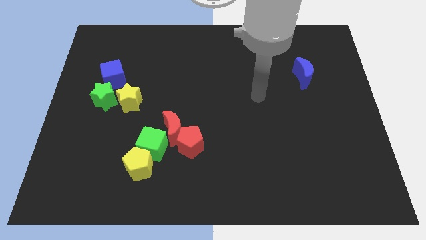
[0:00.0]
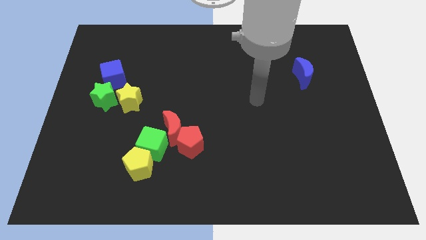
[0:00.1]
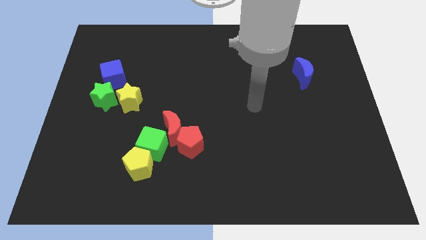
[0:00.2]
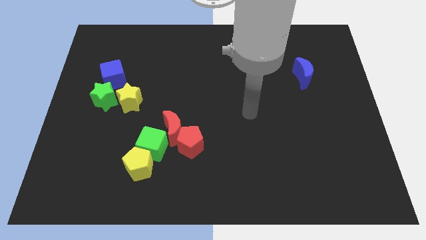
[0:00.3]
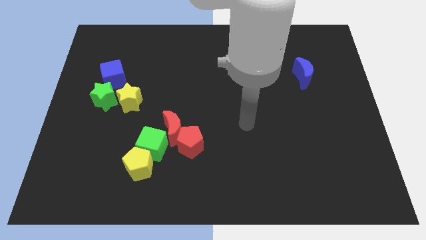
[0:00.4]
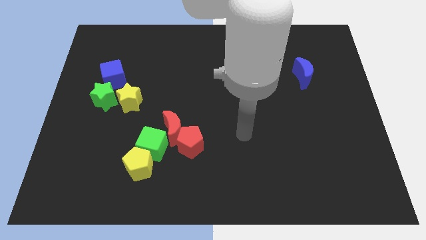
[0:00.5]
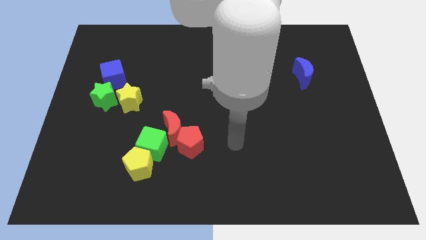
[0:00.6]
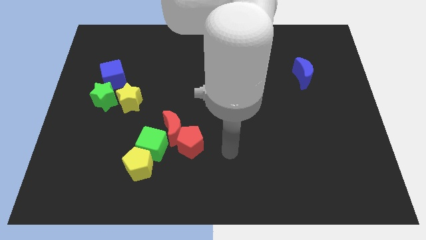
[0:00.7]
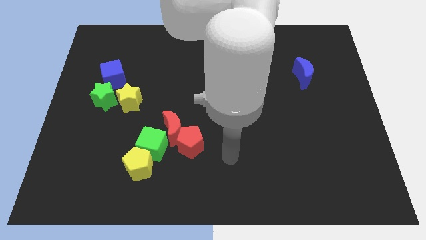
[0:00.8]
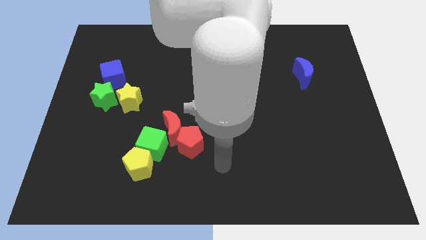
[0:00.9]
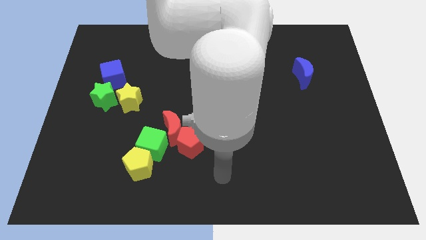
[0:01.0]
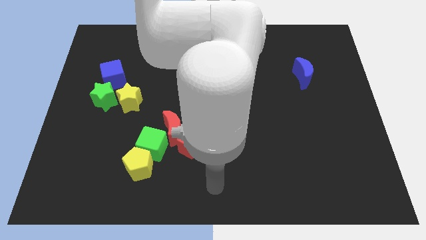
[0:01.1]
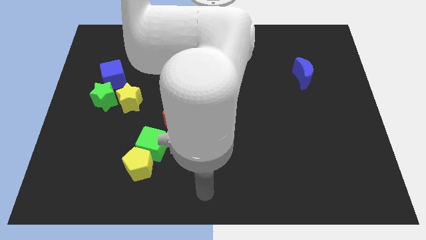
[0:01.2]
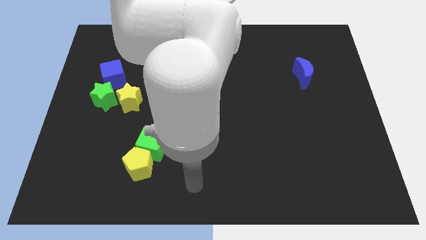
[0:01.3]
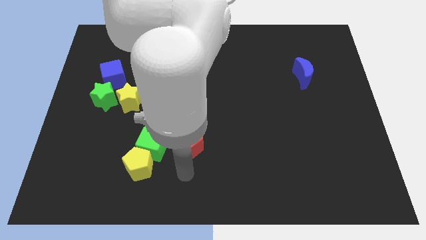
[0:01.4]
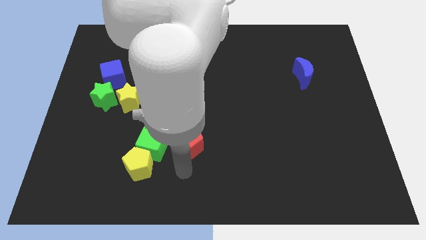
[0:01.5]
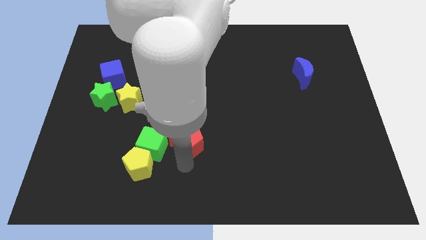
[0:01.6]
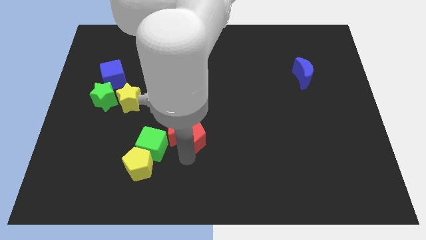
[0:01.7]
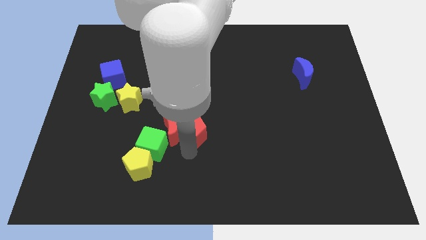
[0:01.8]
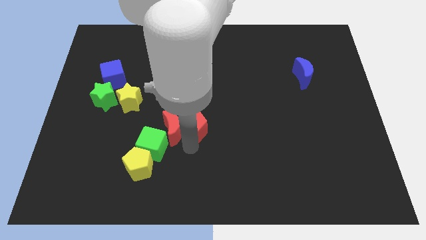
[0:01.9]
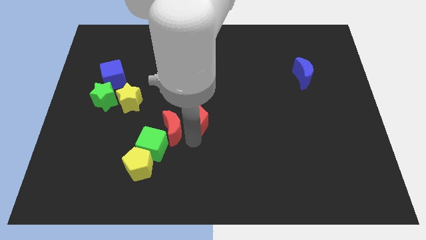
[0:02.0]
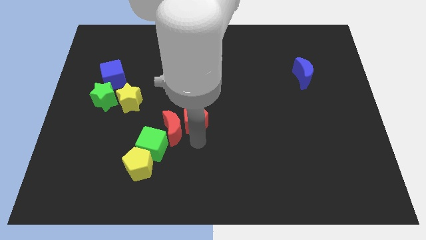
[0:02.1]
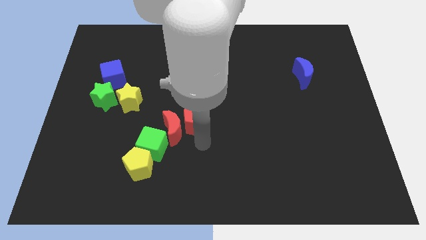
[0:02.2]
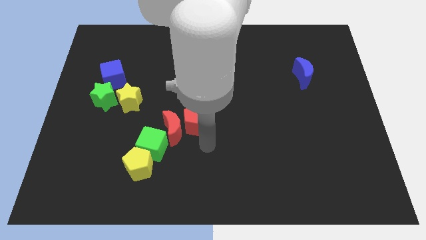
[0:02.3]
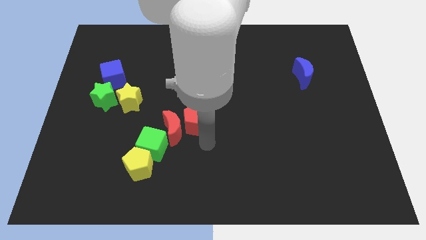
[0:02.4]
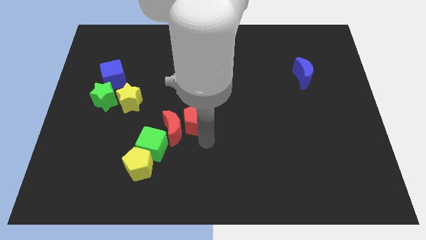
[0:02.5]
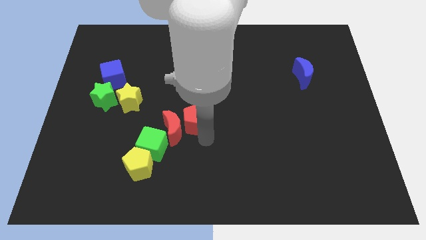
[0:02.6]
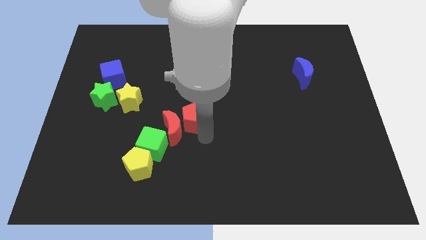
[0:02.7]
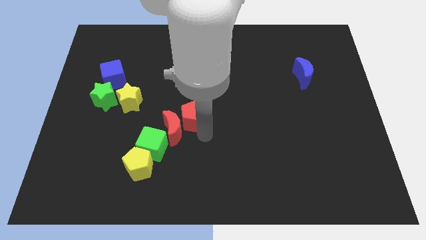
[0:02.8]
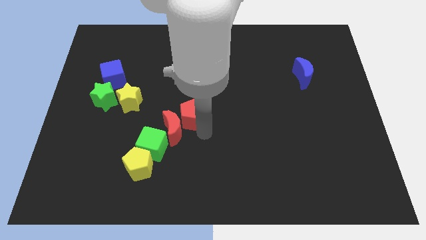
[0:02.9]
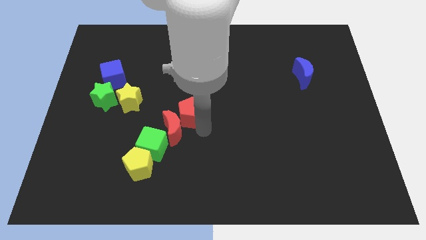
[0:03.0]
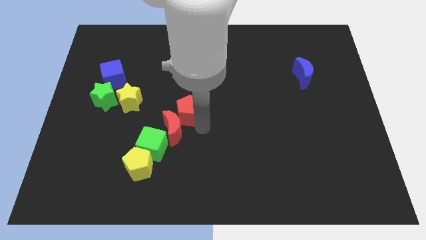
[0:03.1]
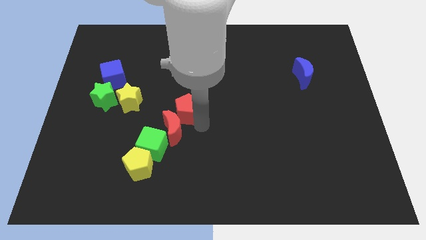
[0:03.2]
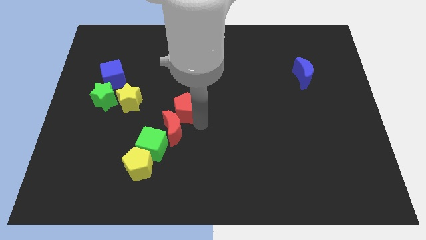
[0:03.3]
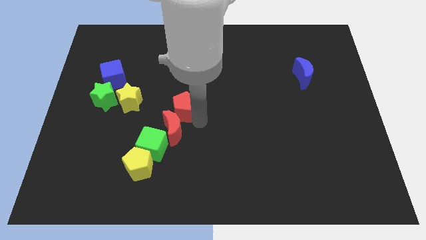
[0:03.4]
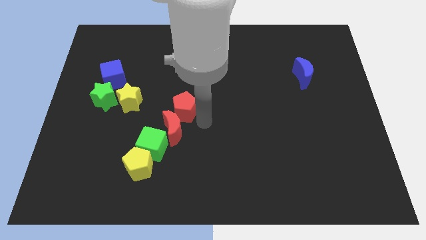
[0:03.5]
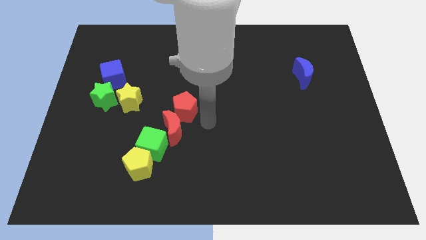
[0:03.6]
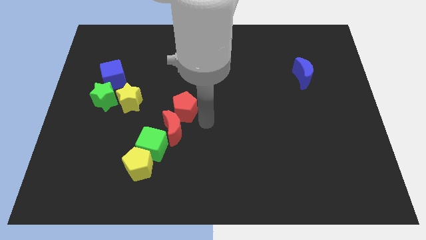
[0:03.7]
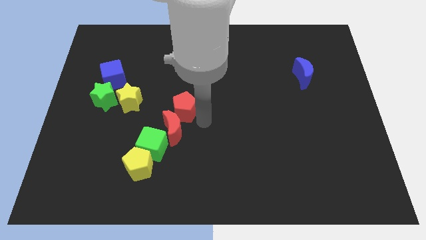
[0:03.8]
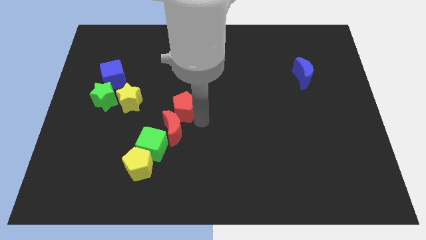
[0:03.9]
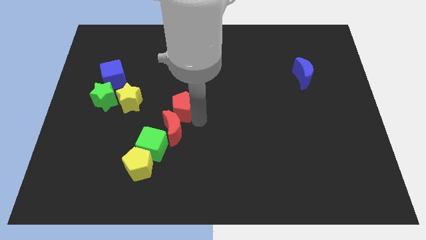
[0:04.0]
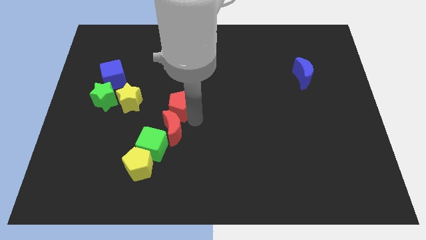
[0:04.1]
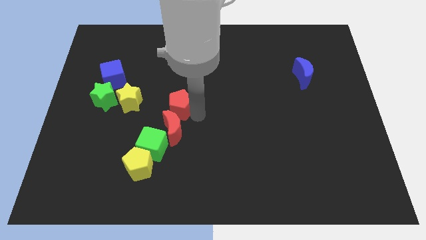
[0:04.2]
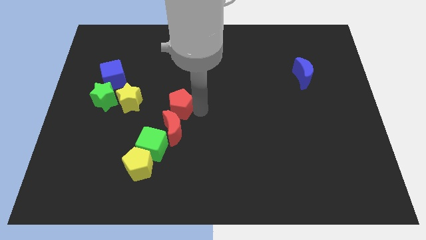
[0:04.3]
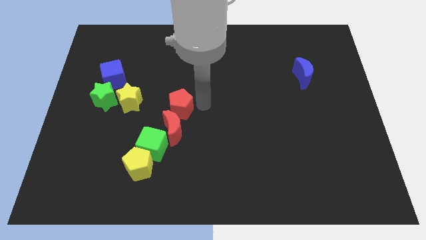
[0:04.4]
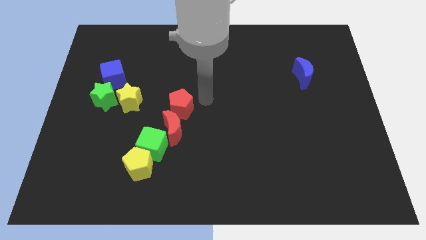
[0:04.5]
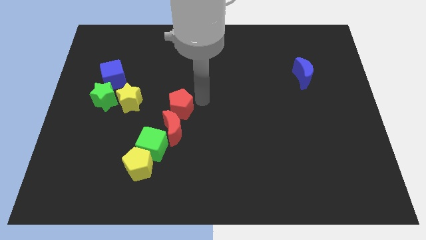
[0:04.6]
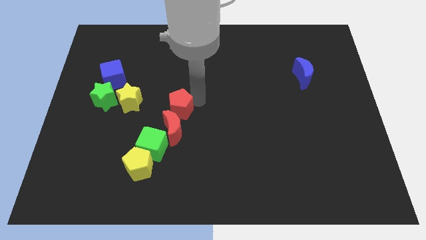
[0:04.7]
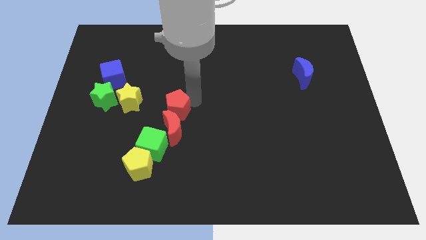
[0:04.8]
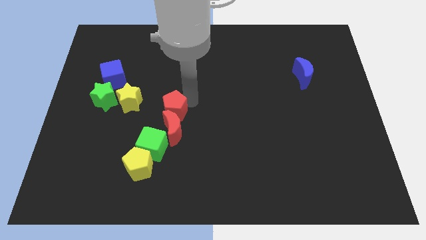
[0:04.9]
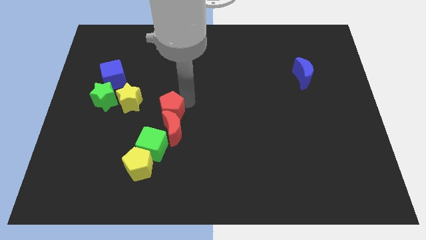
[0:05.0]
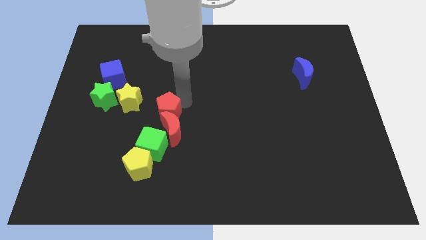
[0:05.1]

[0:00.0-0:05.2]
push the red pentagon to the bottom right side of the yellow star

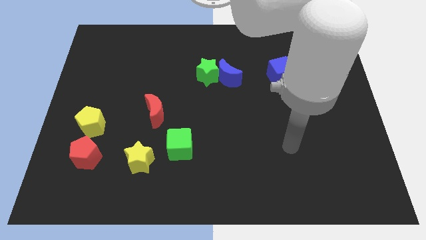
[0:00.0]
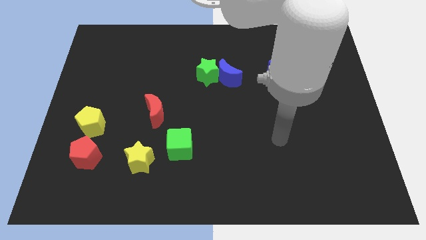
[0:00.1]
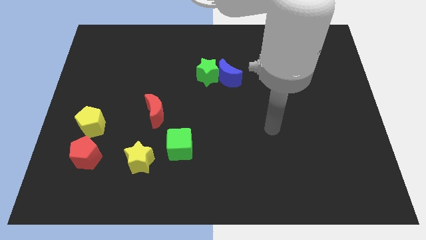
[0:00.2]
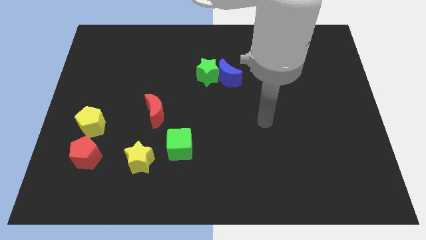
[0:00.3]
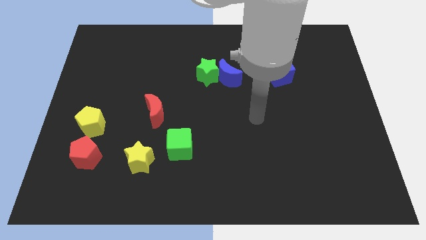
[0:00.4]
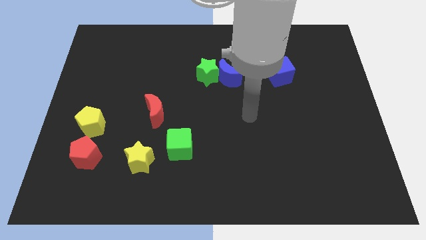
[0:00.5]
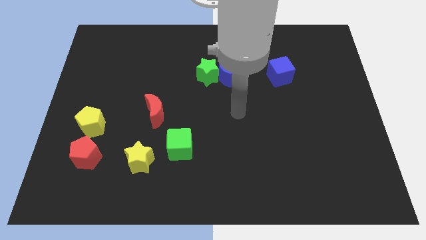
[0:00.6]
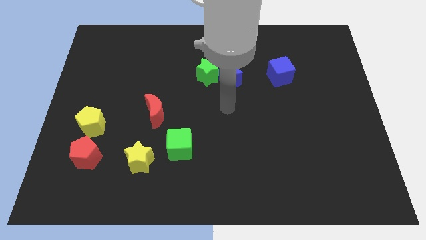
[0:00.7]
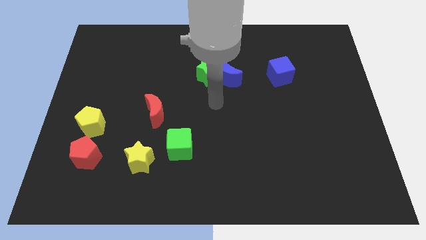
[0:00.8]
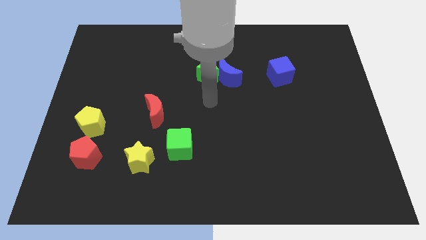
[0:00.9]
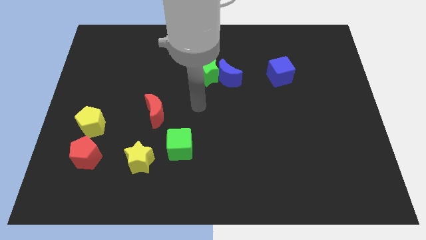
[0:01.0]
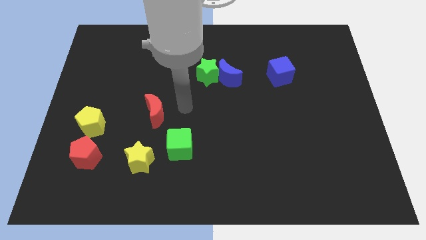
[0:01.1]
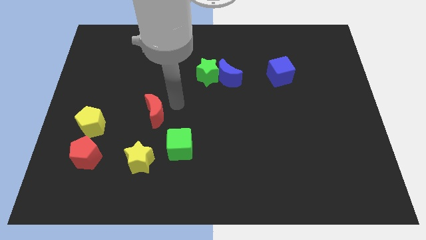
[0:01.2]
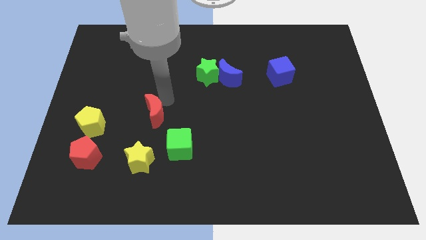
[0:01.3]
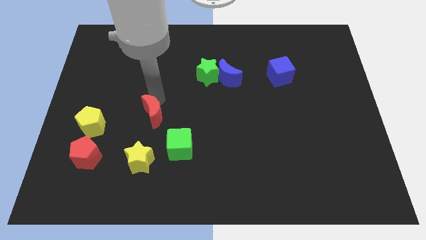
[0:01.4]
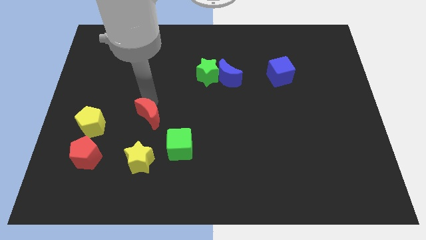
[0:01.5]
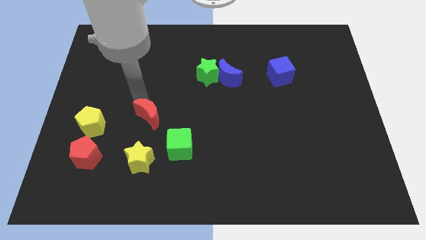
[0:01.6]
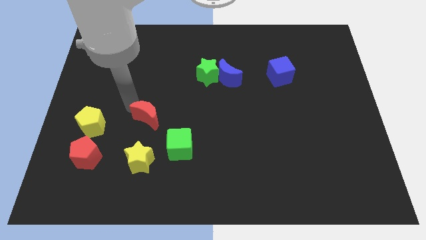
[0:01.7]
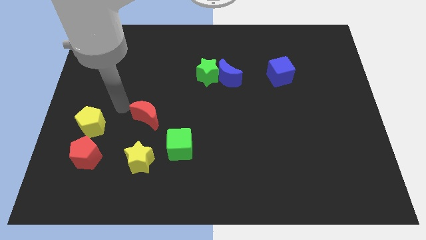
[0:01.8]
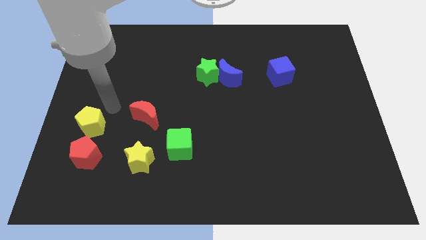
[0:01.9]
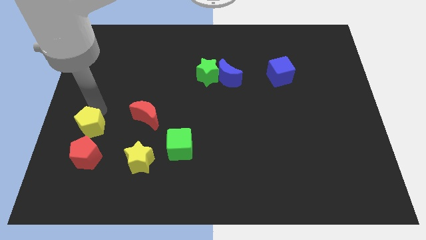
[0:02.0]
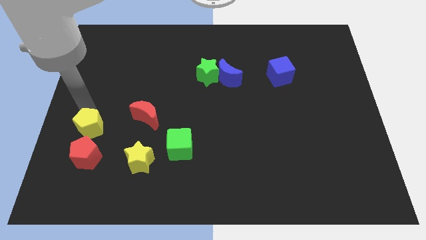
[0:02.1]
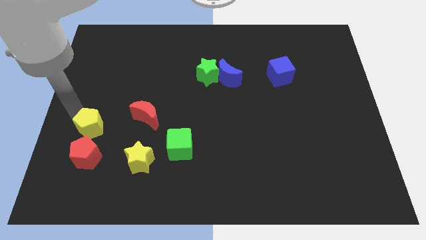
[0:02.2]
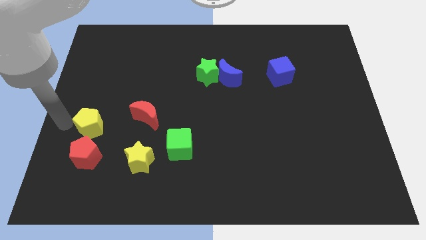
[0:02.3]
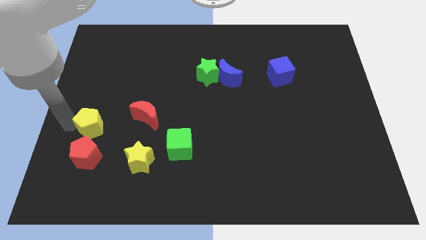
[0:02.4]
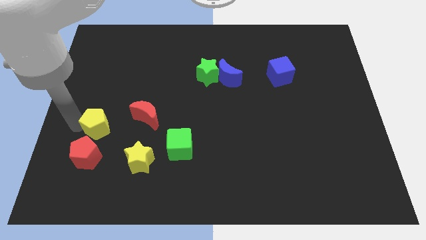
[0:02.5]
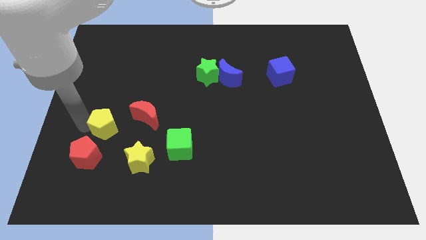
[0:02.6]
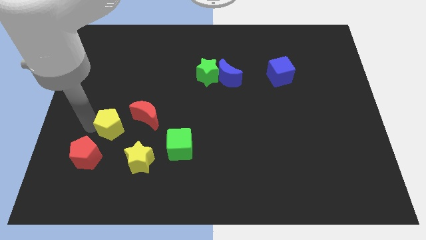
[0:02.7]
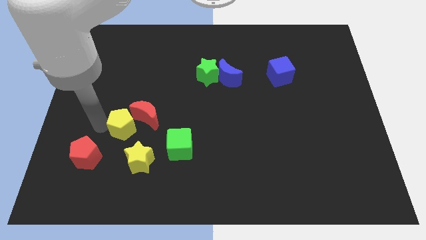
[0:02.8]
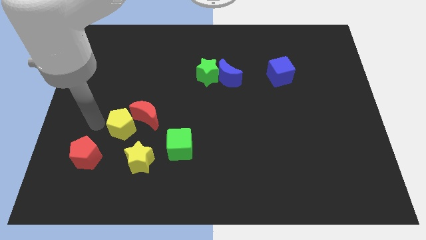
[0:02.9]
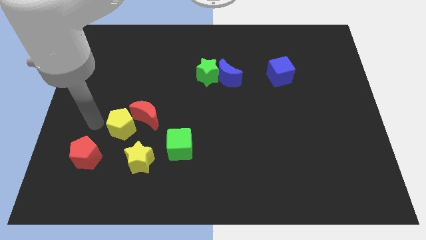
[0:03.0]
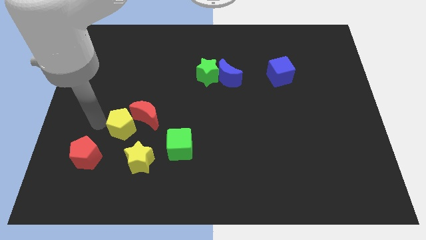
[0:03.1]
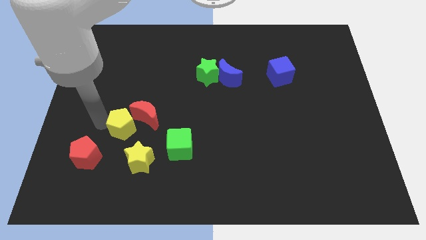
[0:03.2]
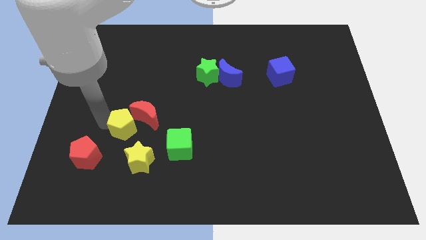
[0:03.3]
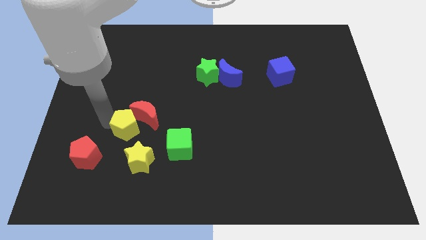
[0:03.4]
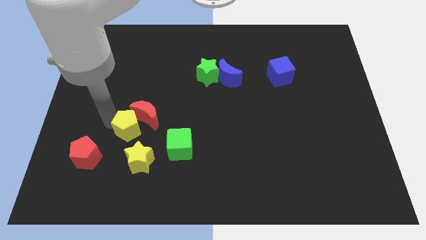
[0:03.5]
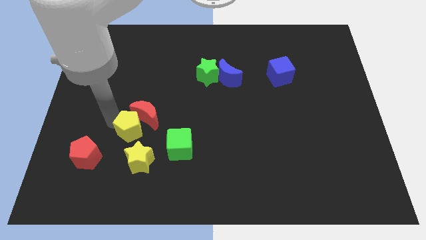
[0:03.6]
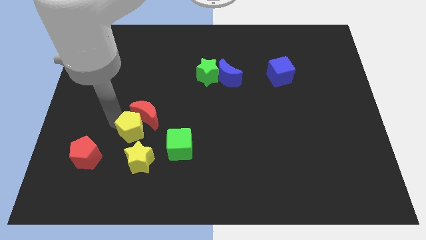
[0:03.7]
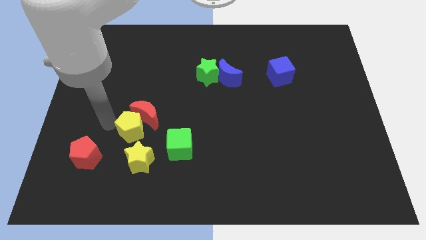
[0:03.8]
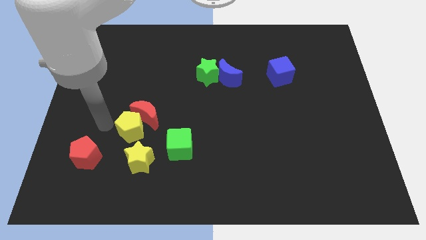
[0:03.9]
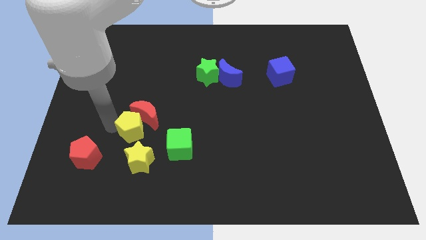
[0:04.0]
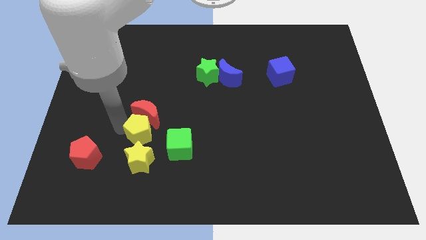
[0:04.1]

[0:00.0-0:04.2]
put the yellow pentagon diagonally down and to the right of the red moon
